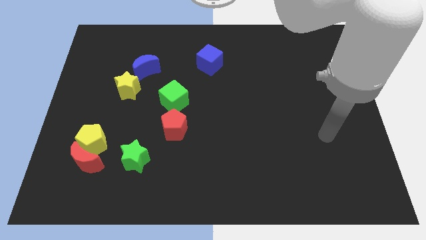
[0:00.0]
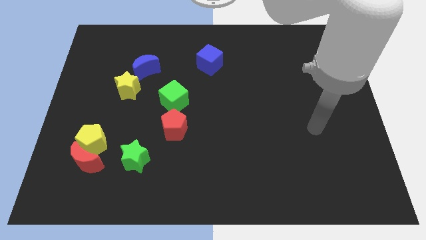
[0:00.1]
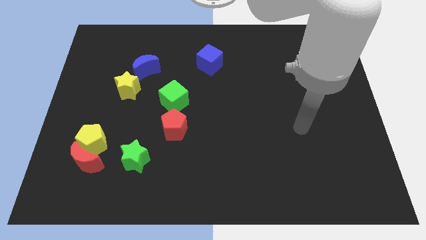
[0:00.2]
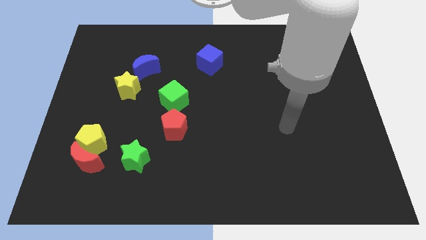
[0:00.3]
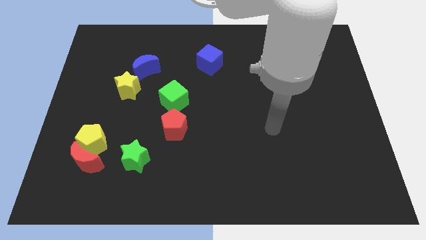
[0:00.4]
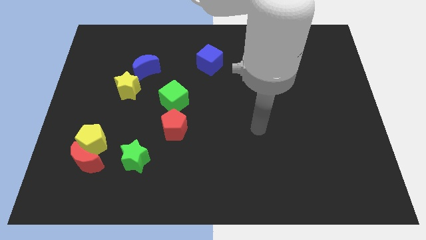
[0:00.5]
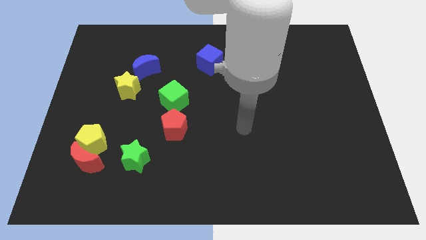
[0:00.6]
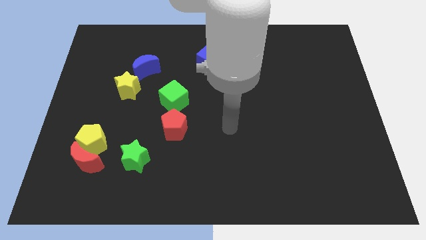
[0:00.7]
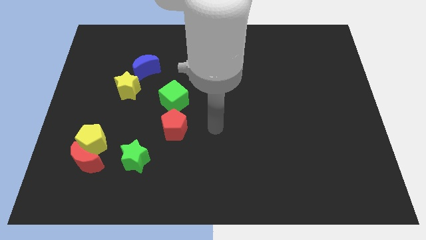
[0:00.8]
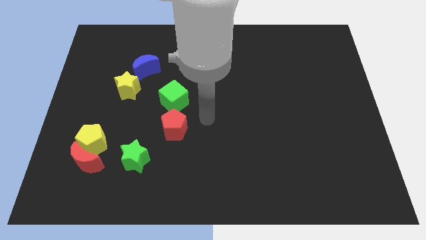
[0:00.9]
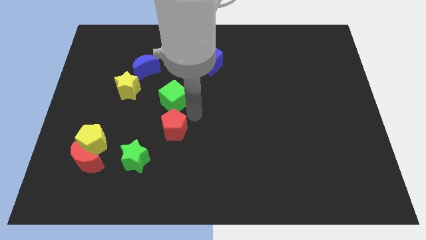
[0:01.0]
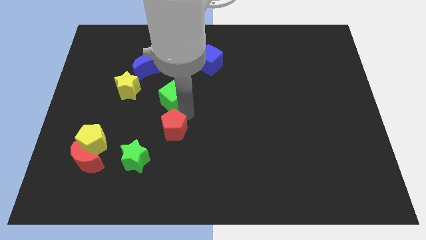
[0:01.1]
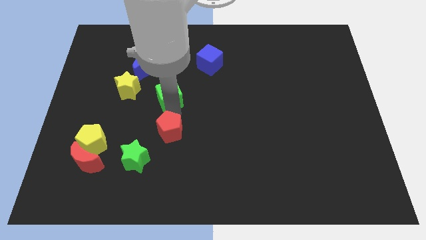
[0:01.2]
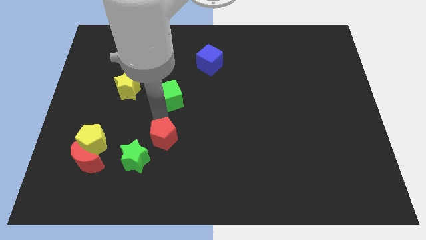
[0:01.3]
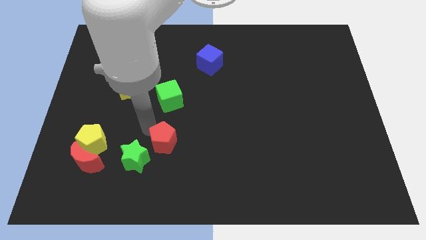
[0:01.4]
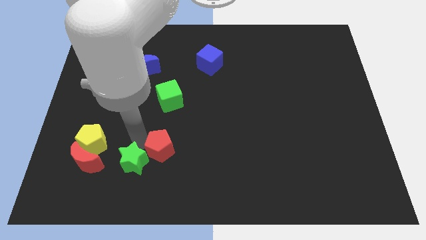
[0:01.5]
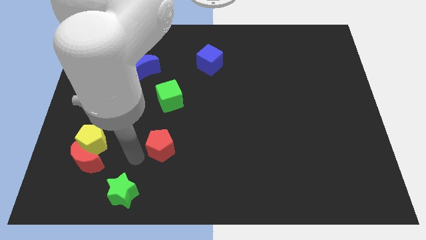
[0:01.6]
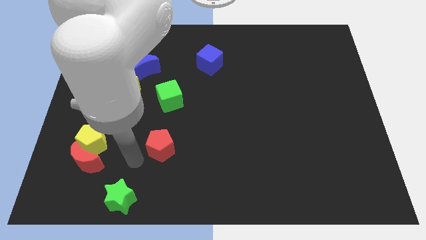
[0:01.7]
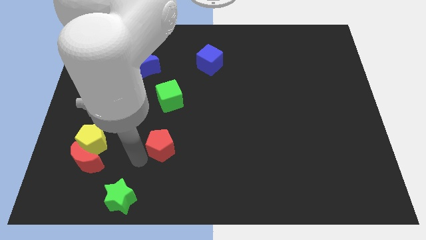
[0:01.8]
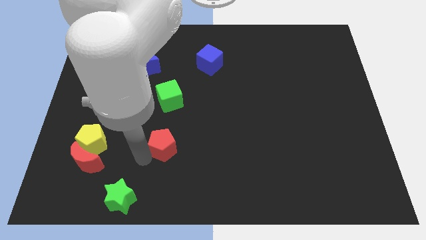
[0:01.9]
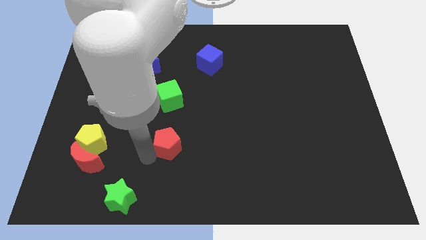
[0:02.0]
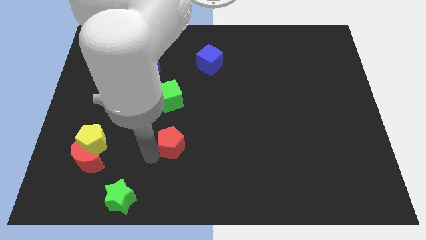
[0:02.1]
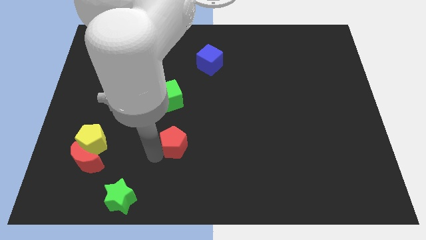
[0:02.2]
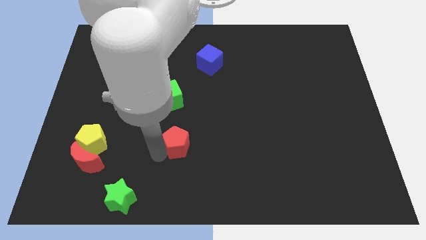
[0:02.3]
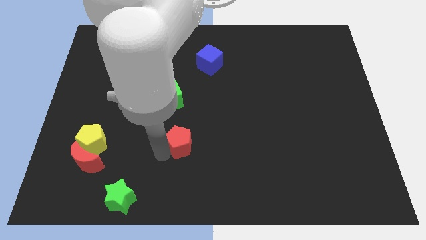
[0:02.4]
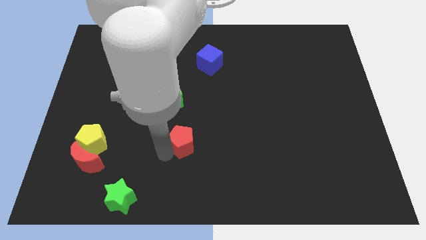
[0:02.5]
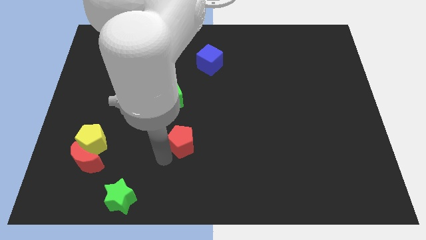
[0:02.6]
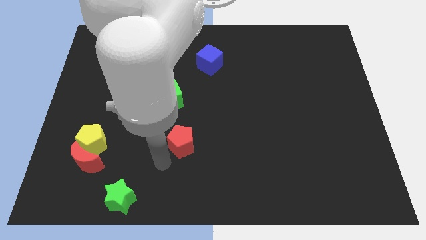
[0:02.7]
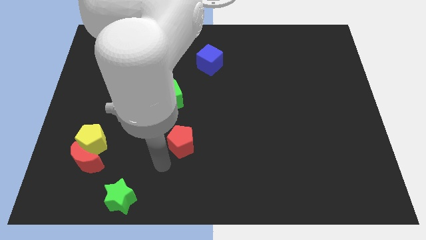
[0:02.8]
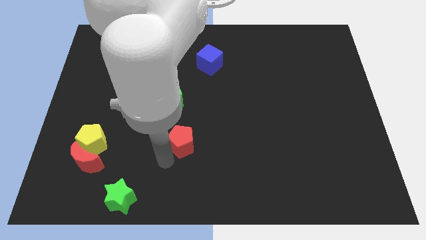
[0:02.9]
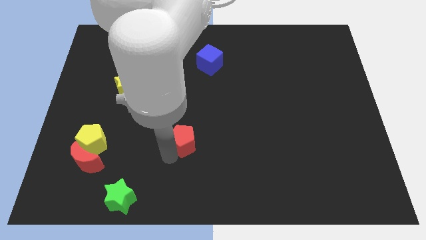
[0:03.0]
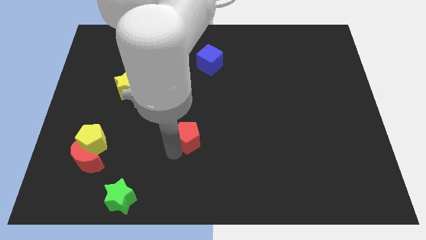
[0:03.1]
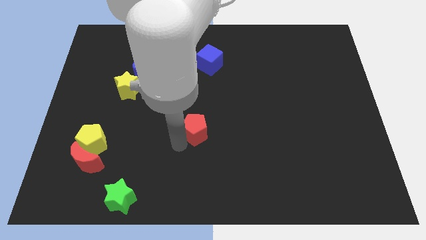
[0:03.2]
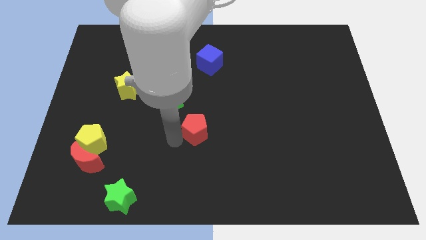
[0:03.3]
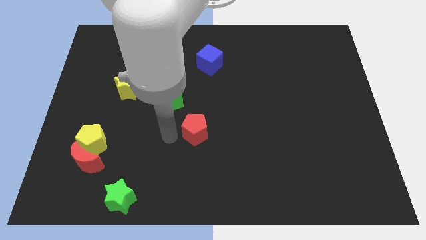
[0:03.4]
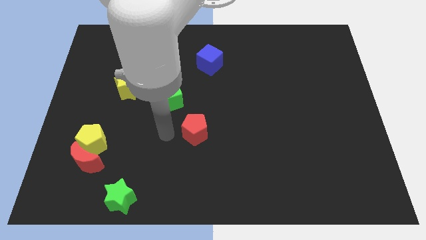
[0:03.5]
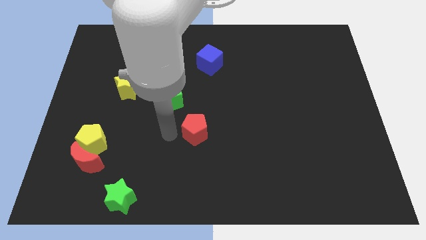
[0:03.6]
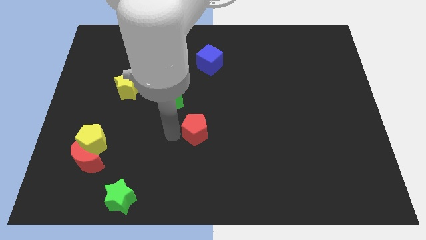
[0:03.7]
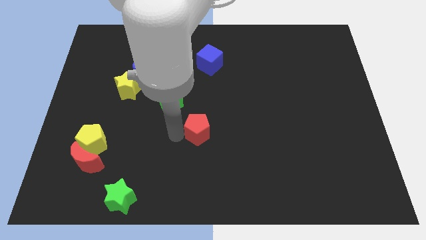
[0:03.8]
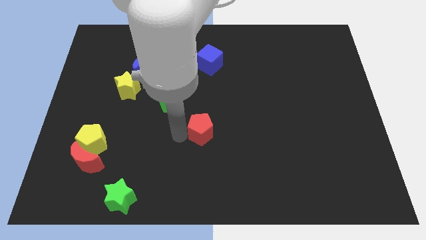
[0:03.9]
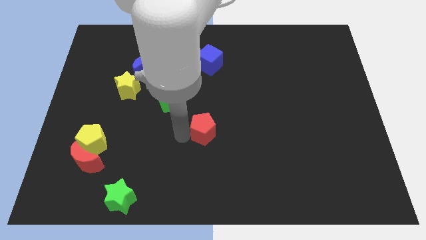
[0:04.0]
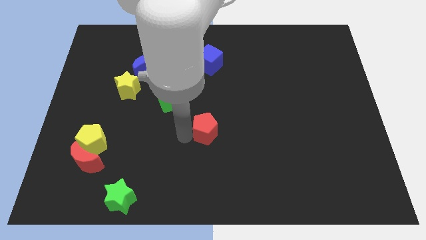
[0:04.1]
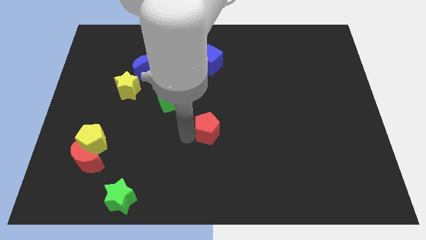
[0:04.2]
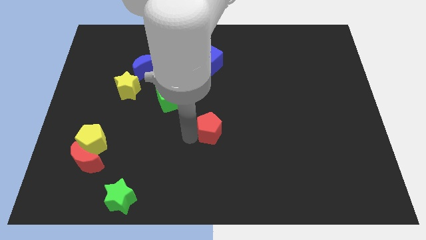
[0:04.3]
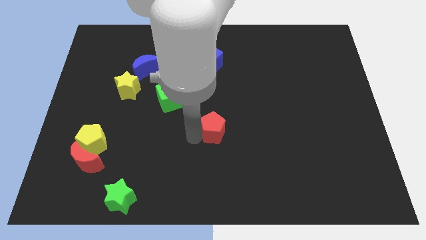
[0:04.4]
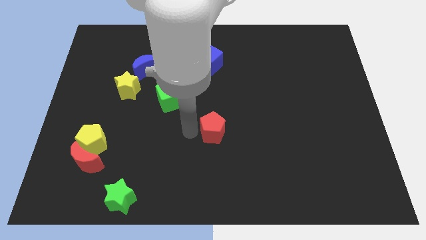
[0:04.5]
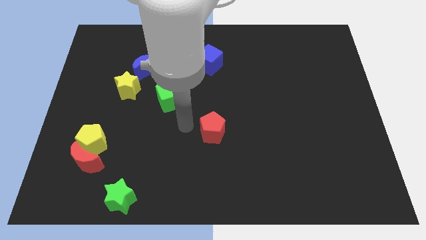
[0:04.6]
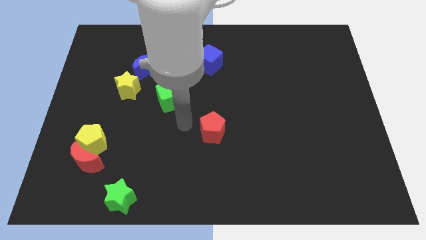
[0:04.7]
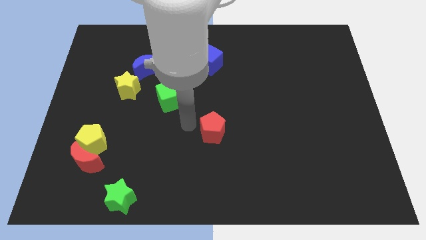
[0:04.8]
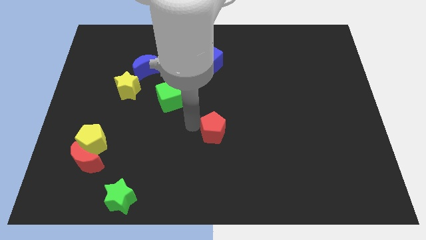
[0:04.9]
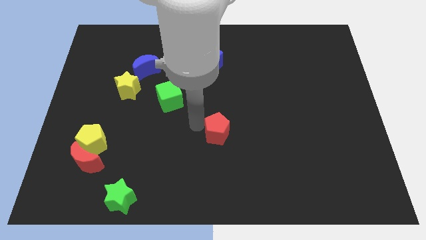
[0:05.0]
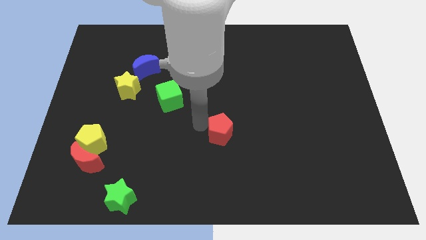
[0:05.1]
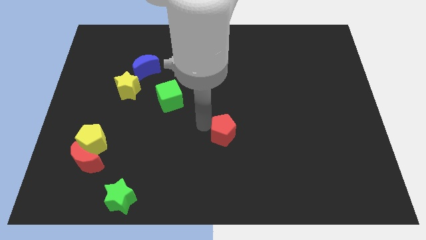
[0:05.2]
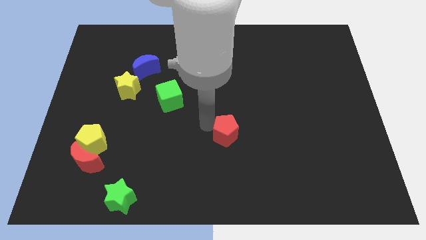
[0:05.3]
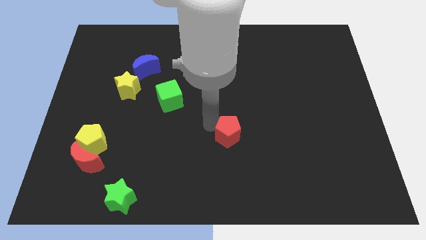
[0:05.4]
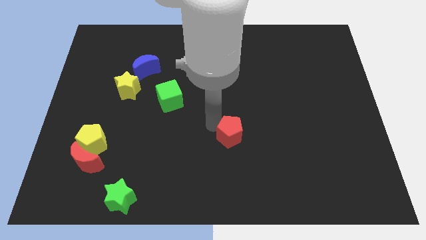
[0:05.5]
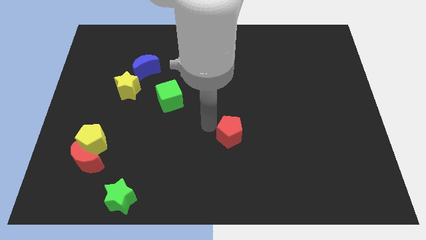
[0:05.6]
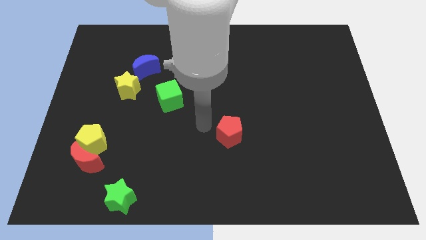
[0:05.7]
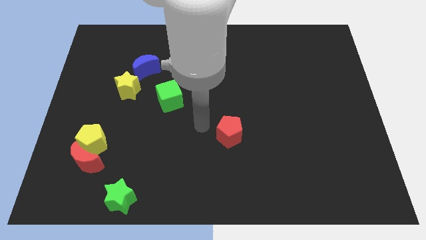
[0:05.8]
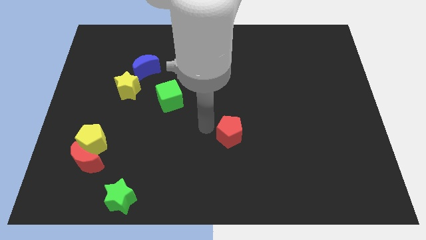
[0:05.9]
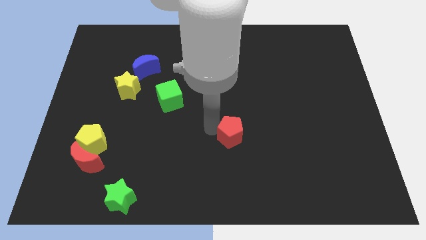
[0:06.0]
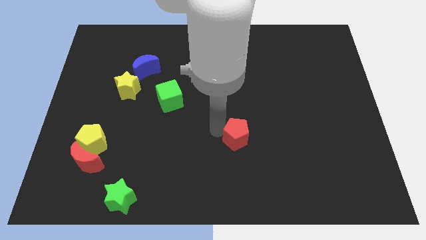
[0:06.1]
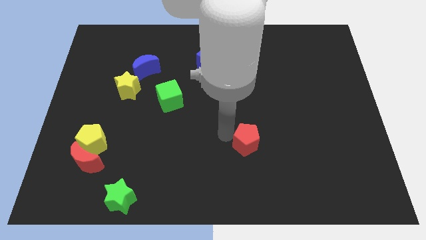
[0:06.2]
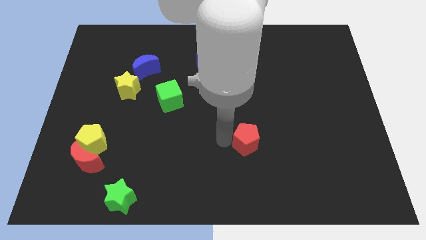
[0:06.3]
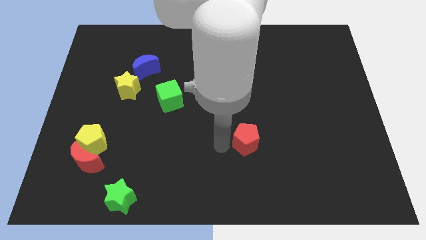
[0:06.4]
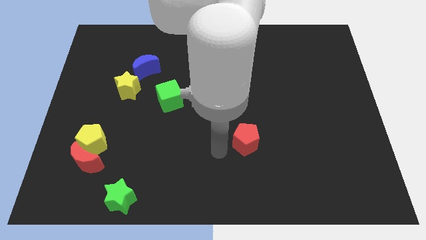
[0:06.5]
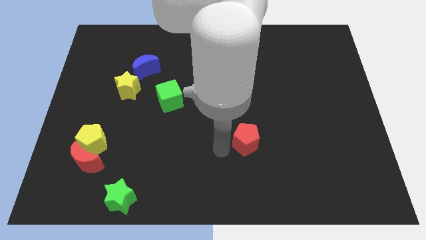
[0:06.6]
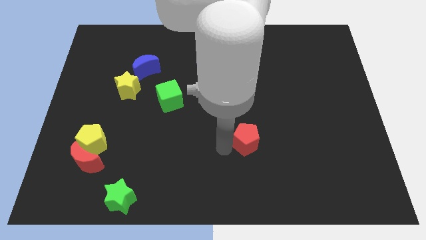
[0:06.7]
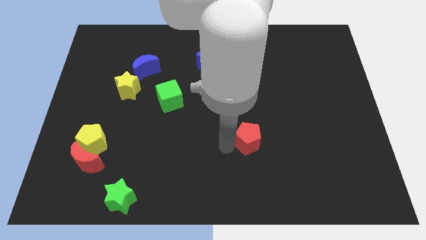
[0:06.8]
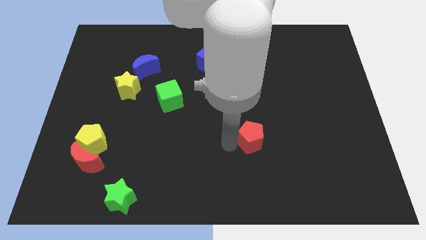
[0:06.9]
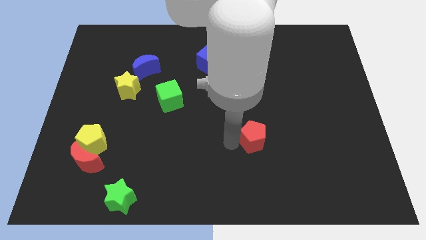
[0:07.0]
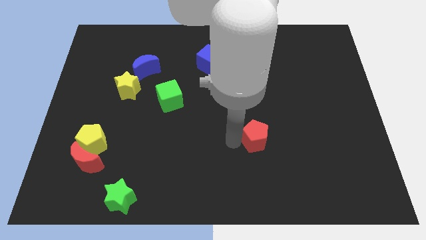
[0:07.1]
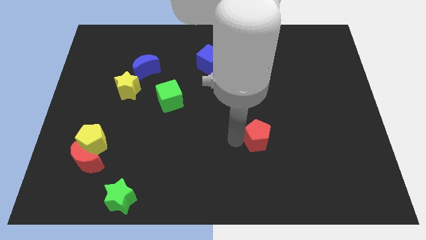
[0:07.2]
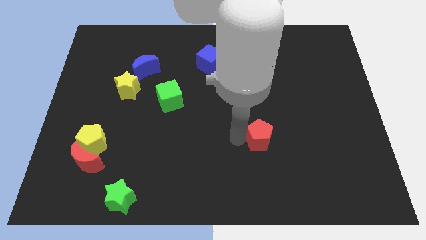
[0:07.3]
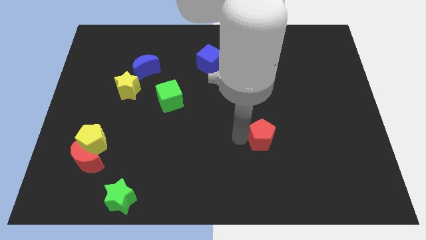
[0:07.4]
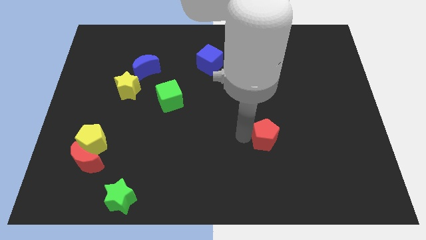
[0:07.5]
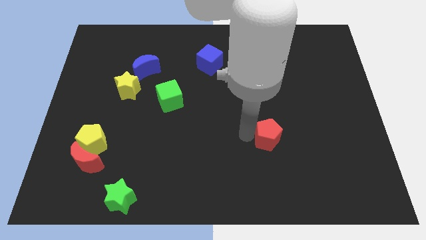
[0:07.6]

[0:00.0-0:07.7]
move the red pentagon to the right

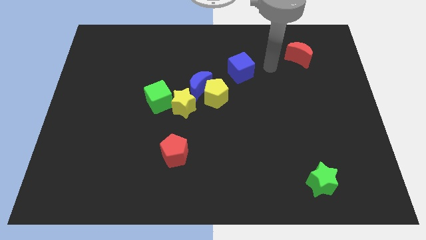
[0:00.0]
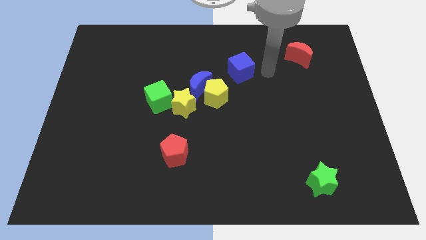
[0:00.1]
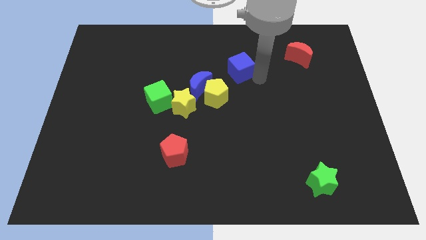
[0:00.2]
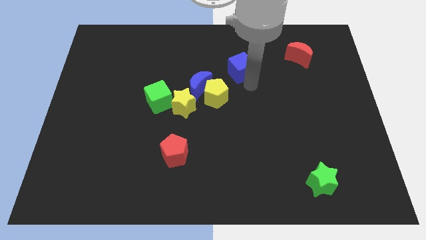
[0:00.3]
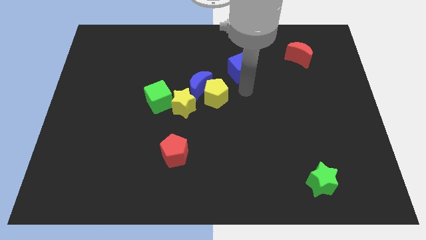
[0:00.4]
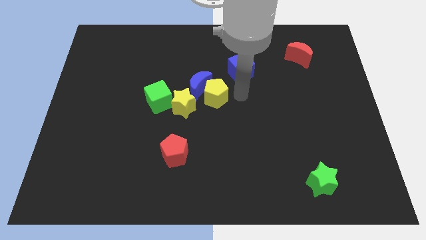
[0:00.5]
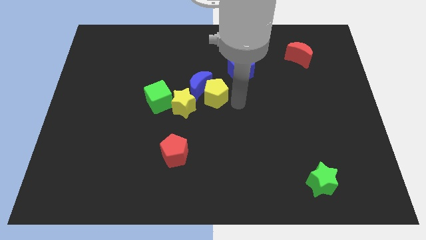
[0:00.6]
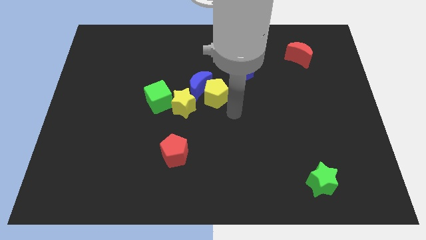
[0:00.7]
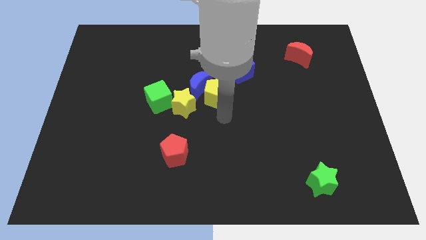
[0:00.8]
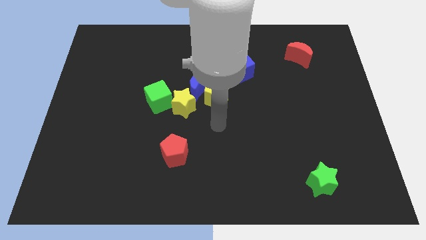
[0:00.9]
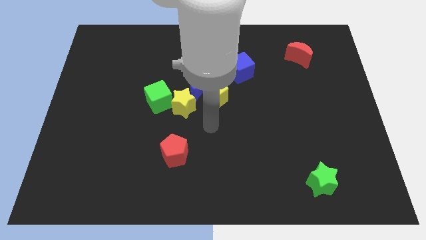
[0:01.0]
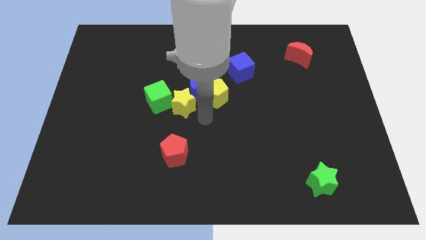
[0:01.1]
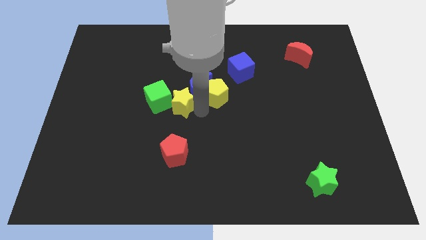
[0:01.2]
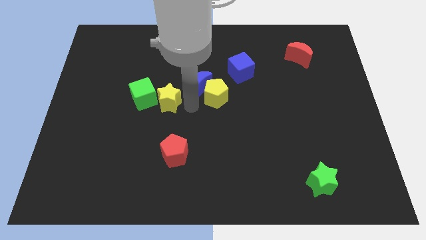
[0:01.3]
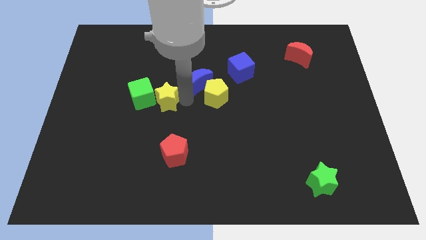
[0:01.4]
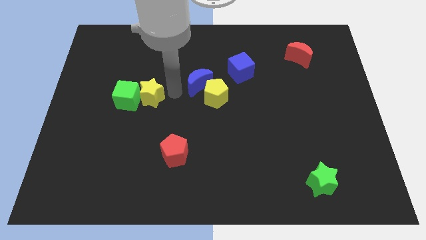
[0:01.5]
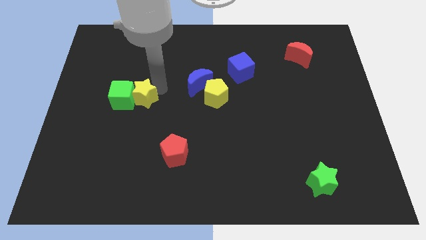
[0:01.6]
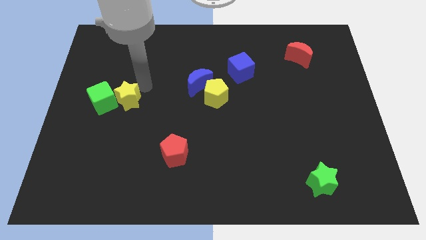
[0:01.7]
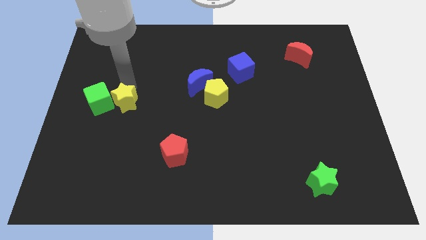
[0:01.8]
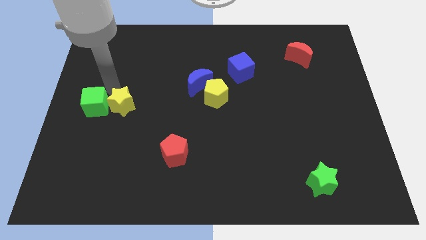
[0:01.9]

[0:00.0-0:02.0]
slightly slide the green cube down and to the left diagonally
